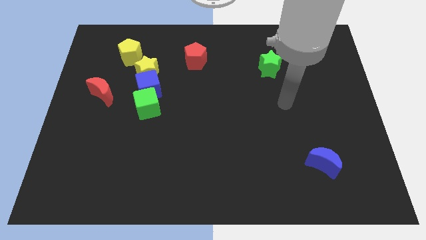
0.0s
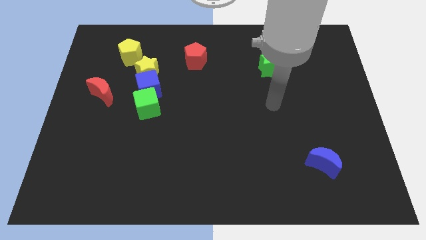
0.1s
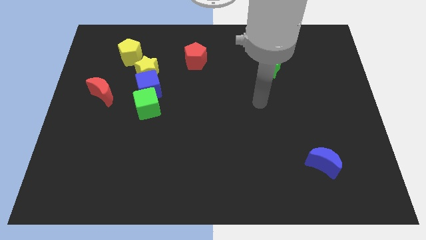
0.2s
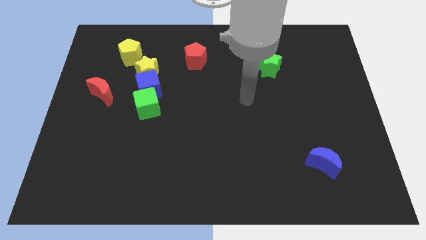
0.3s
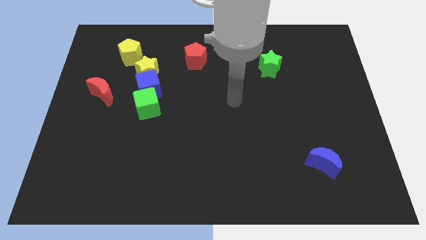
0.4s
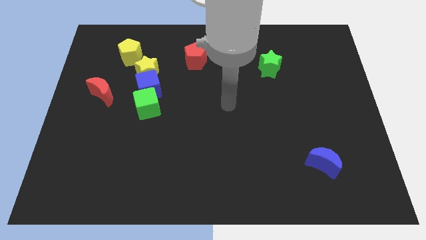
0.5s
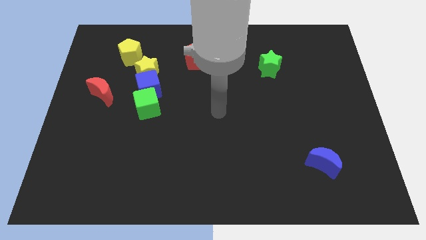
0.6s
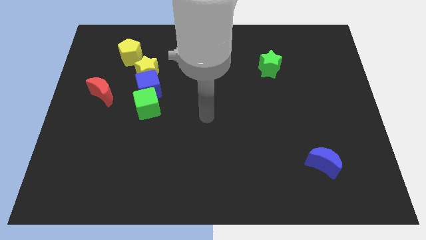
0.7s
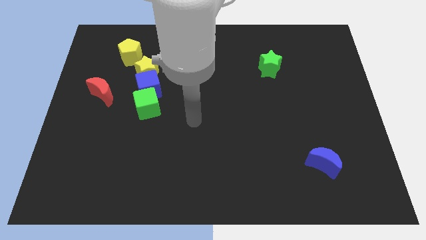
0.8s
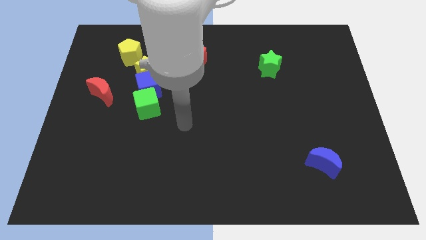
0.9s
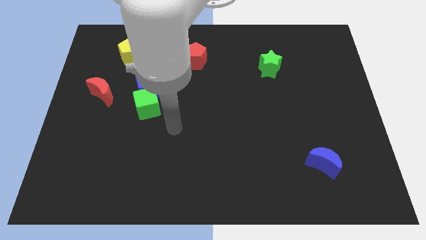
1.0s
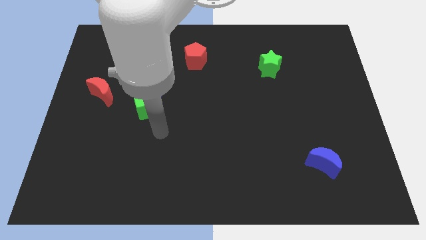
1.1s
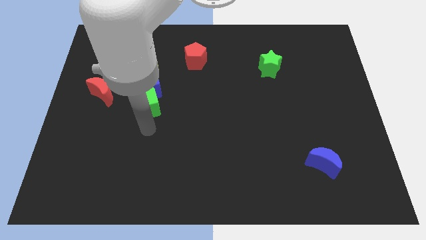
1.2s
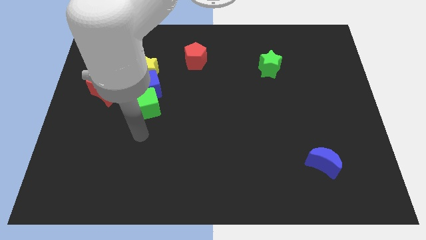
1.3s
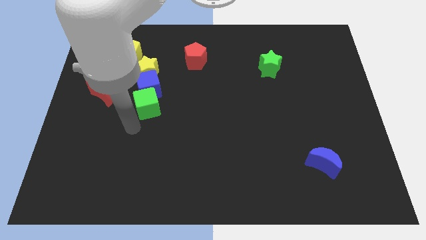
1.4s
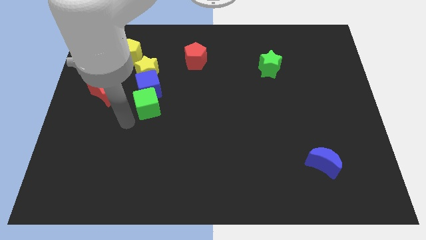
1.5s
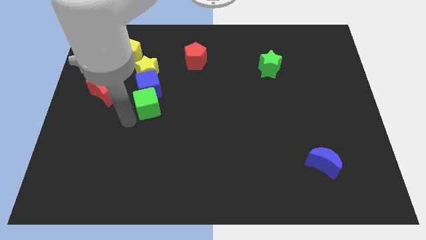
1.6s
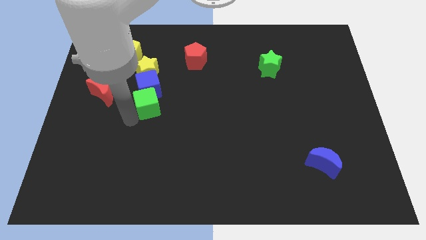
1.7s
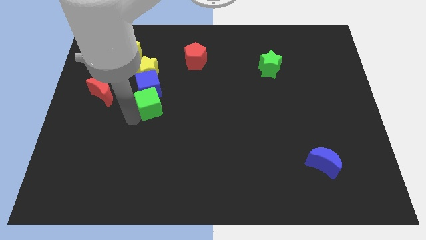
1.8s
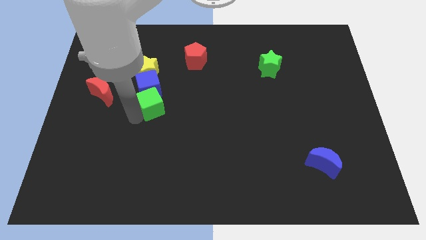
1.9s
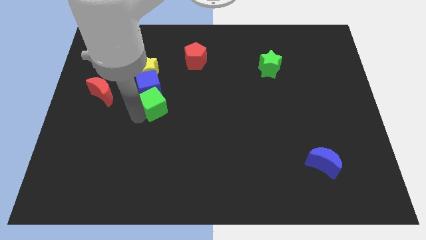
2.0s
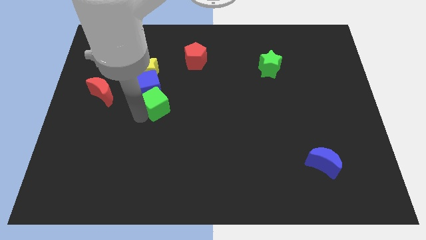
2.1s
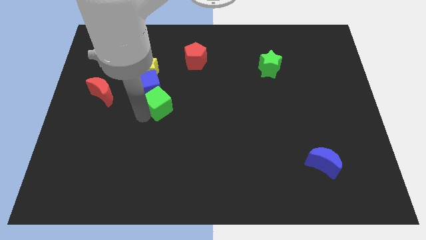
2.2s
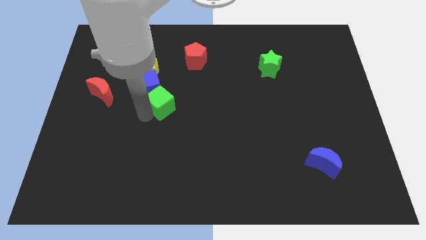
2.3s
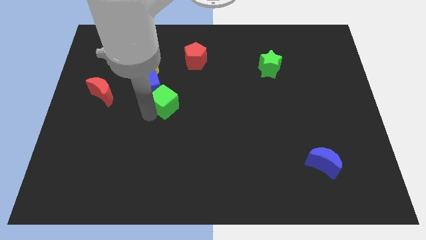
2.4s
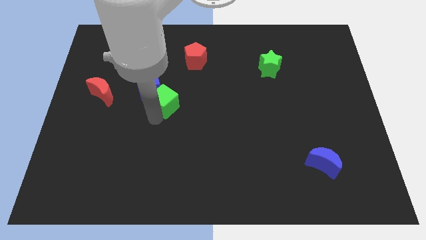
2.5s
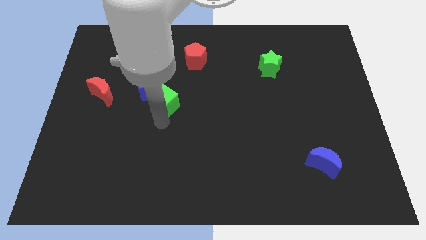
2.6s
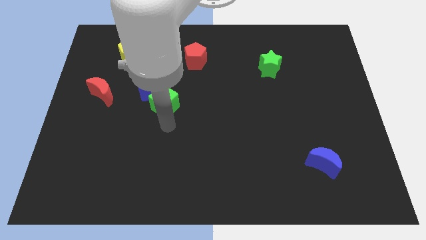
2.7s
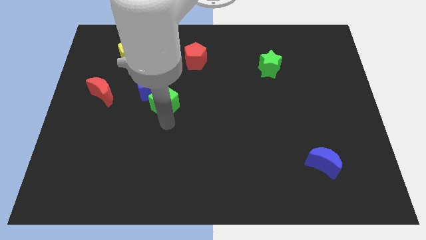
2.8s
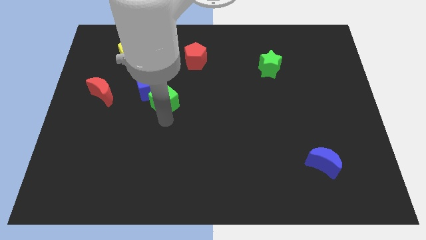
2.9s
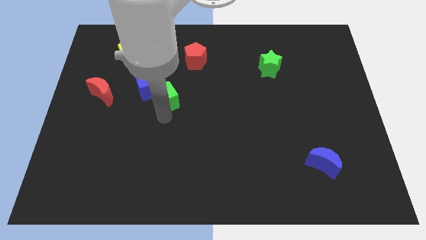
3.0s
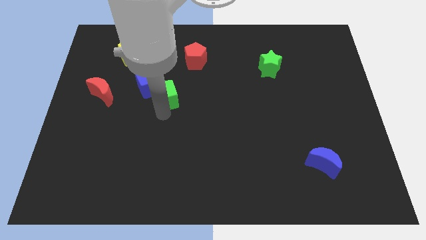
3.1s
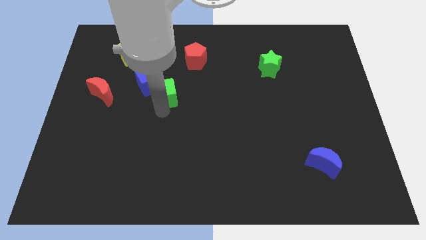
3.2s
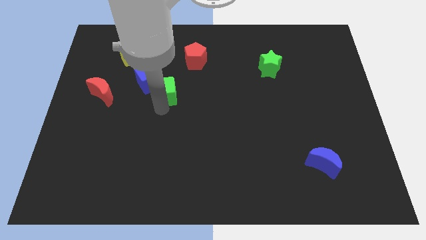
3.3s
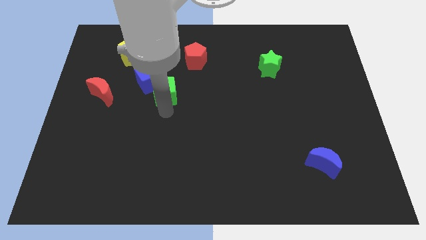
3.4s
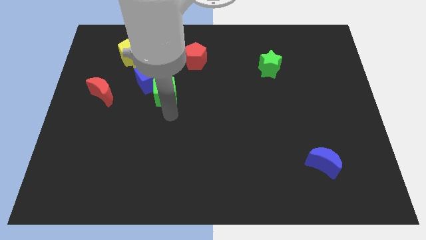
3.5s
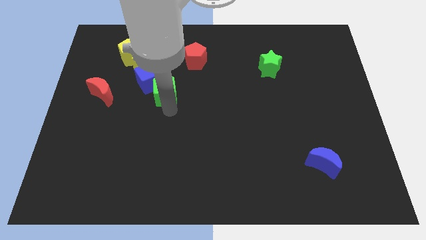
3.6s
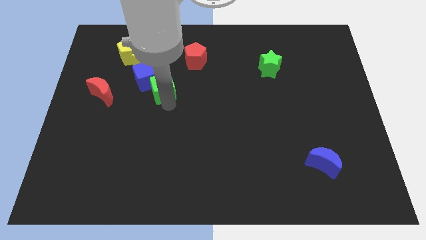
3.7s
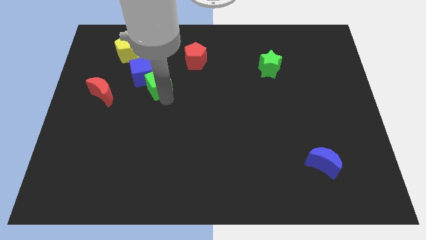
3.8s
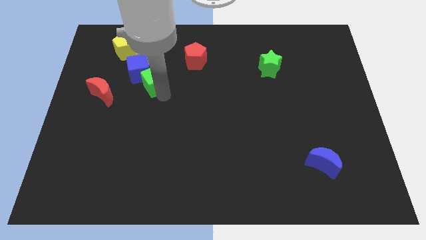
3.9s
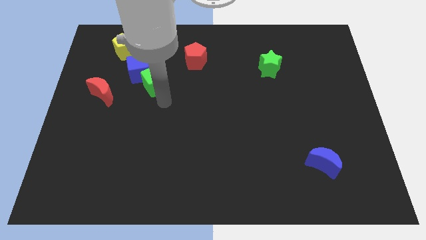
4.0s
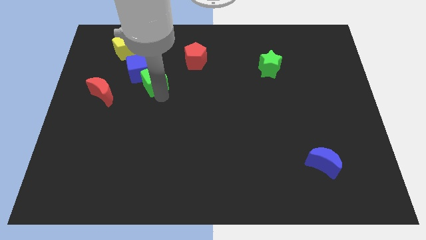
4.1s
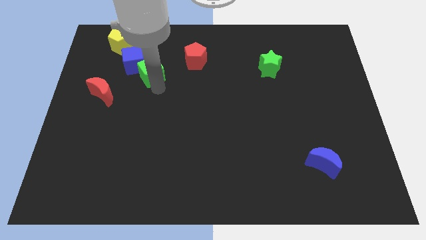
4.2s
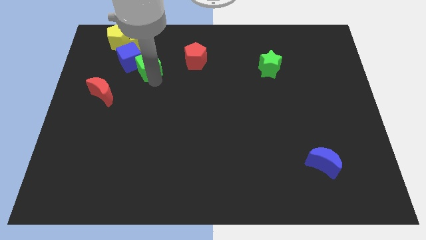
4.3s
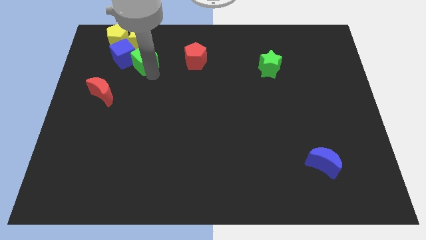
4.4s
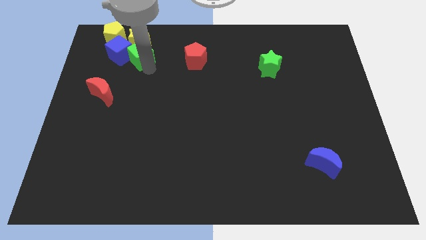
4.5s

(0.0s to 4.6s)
put the green cube towards the yellow star

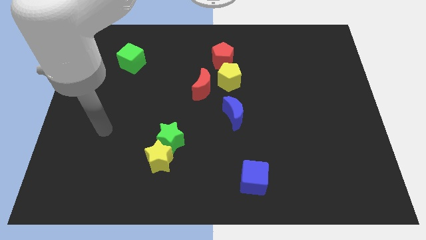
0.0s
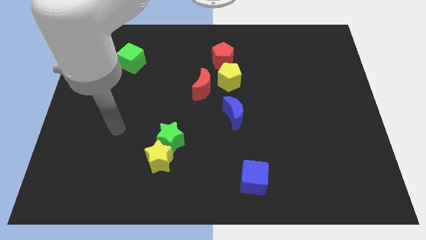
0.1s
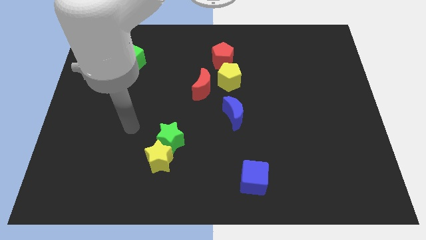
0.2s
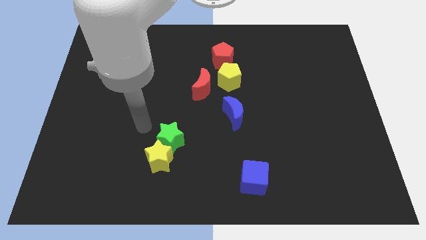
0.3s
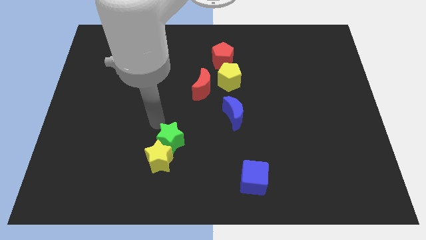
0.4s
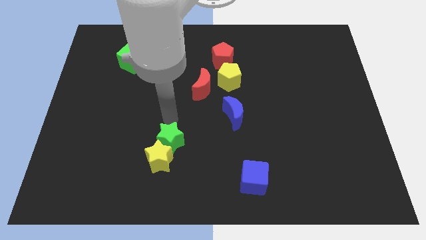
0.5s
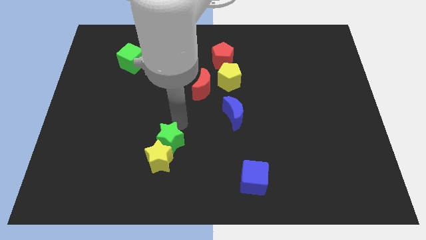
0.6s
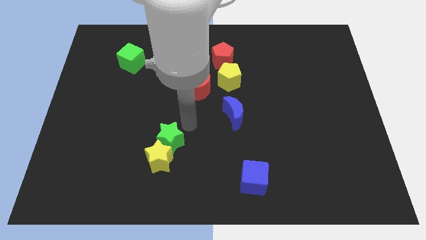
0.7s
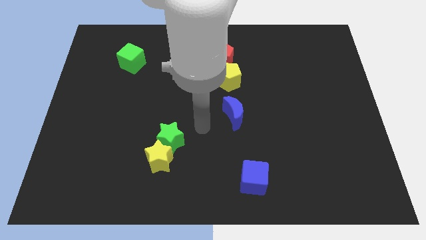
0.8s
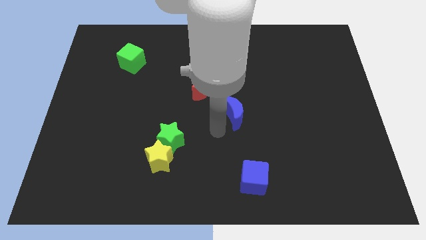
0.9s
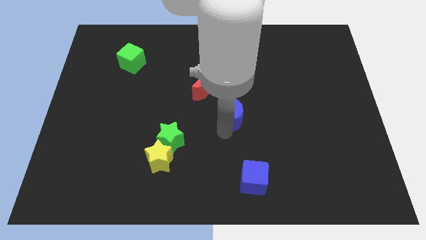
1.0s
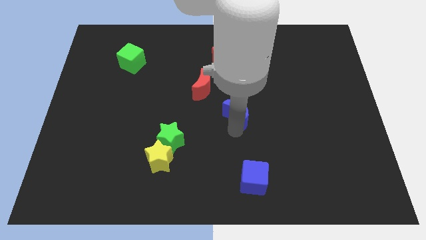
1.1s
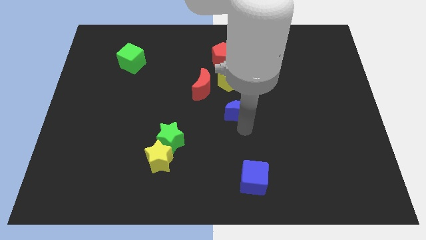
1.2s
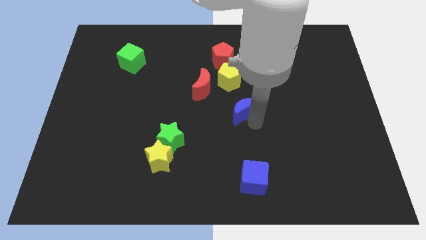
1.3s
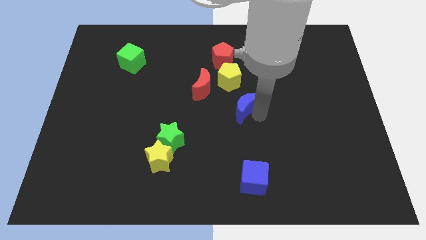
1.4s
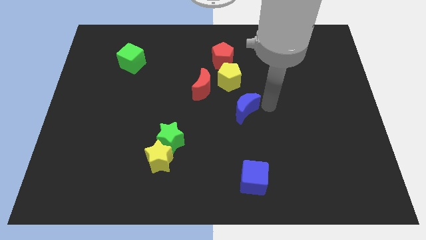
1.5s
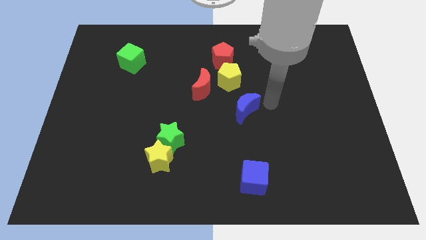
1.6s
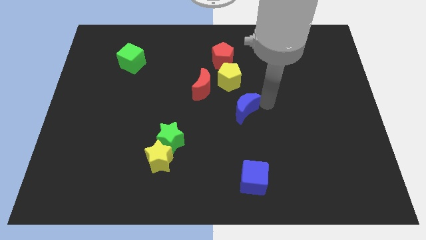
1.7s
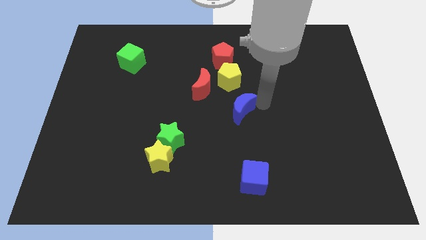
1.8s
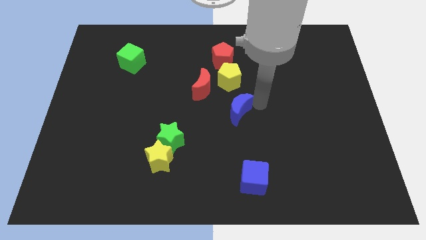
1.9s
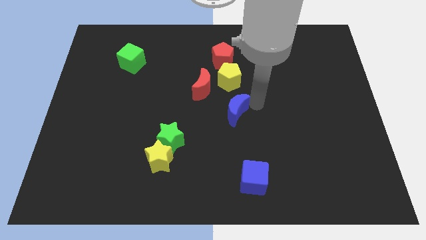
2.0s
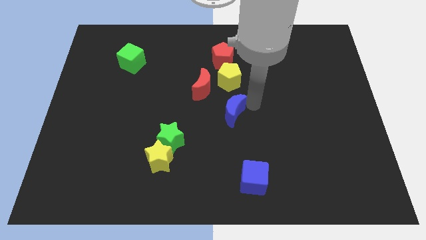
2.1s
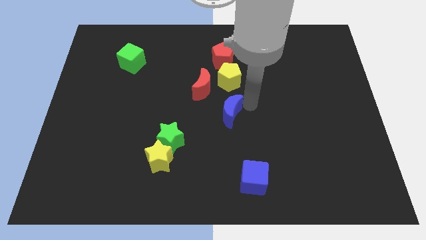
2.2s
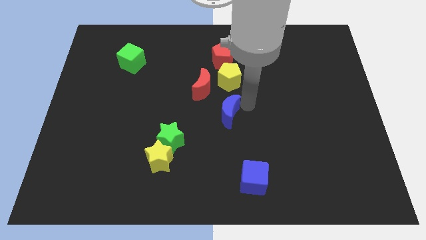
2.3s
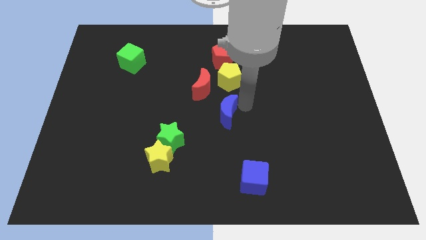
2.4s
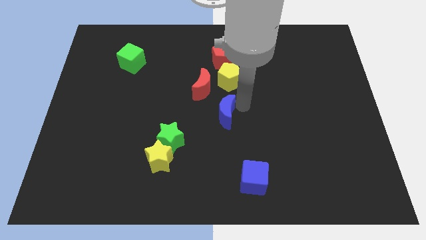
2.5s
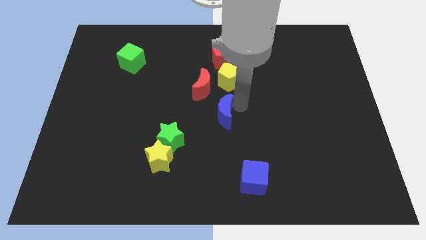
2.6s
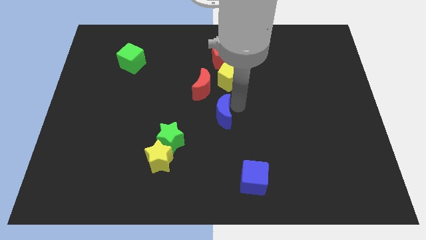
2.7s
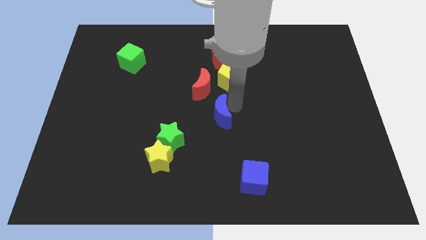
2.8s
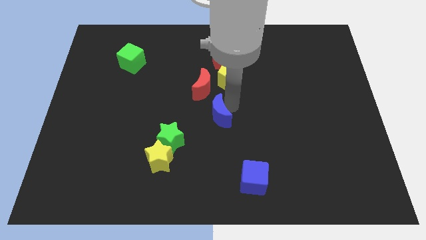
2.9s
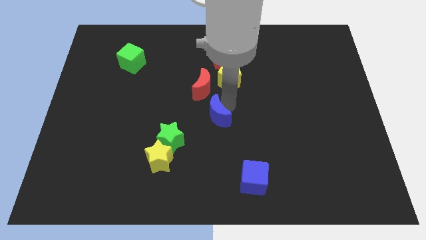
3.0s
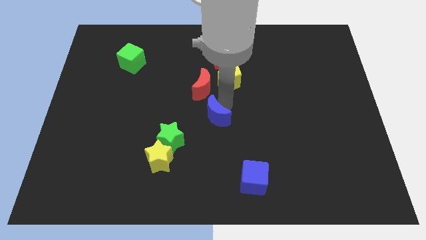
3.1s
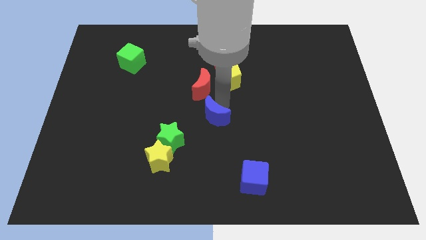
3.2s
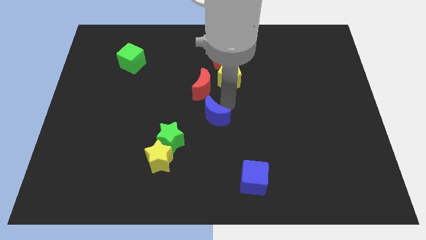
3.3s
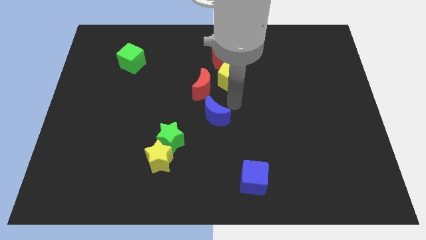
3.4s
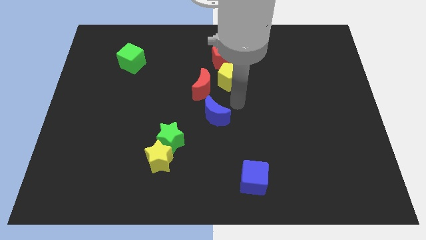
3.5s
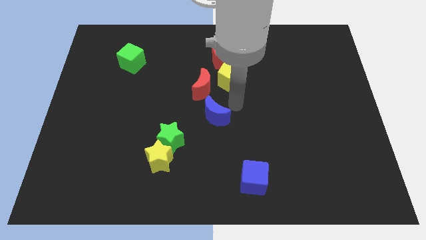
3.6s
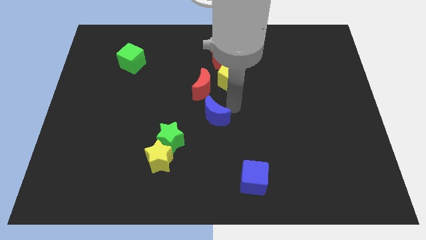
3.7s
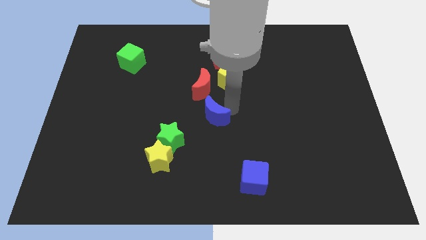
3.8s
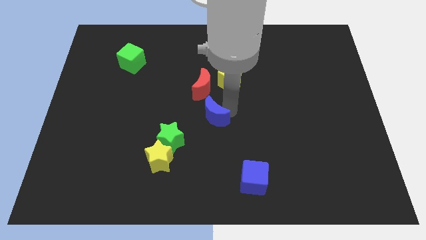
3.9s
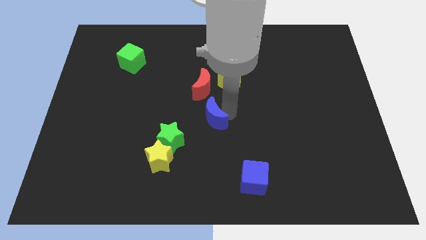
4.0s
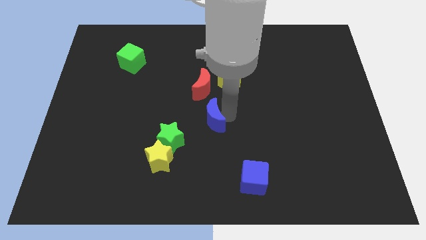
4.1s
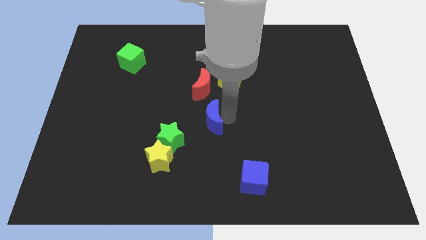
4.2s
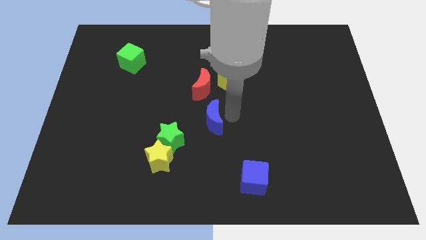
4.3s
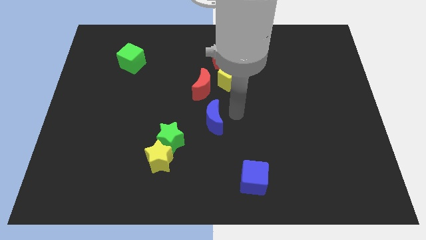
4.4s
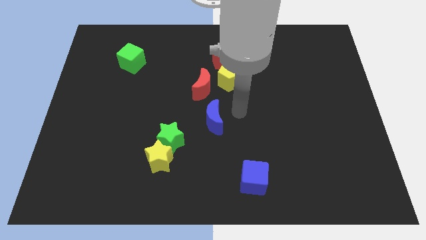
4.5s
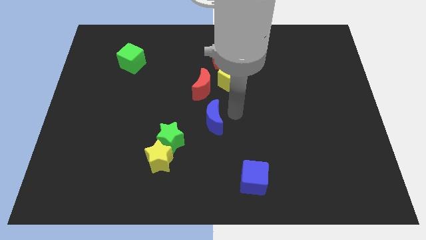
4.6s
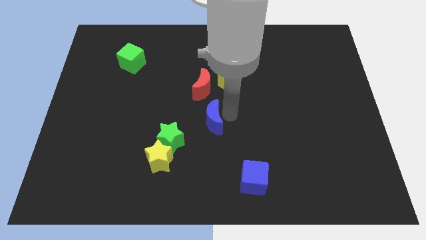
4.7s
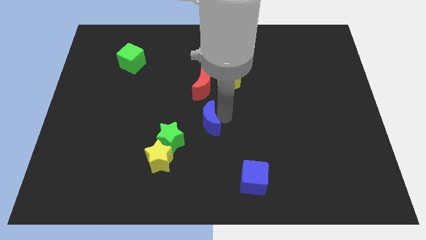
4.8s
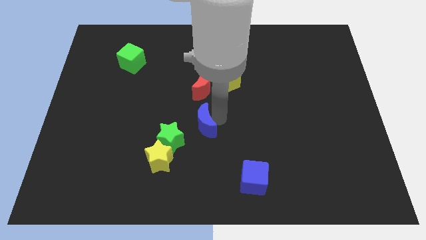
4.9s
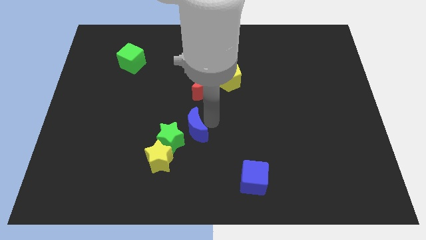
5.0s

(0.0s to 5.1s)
slide the blue moon towards the green star
